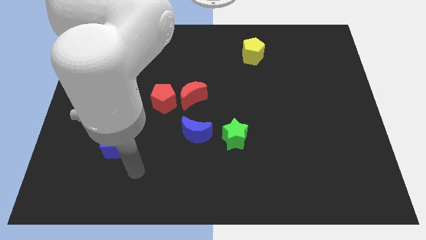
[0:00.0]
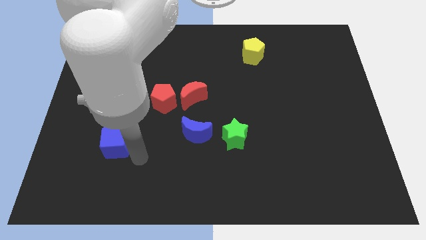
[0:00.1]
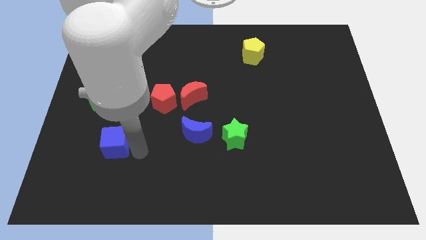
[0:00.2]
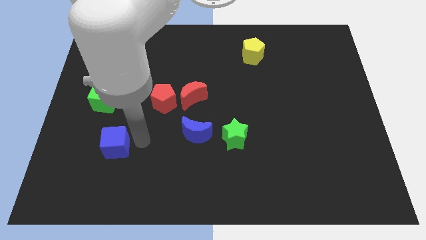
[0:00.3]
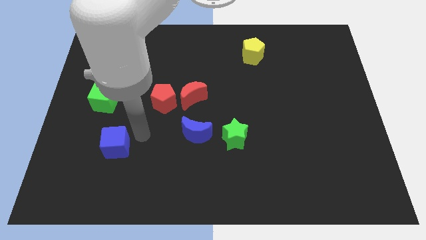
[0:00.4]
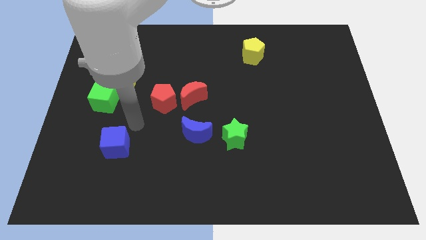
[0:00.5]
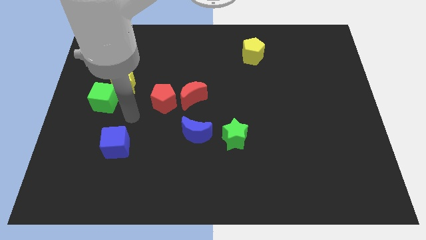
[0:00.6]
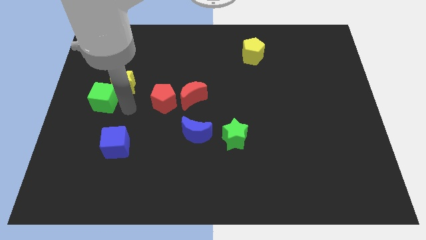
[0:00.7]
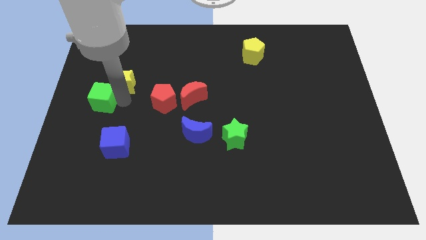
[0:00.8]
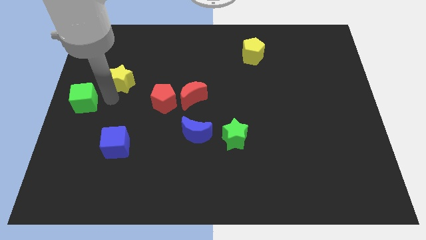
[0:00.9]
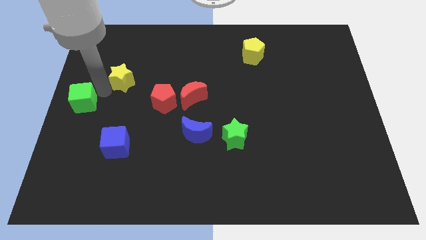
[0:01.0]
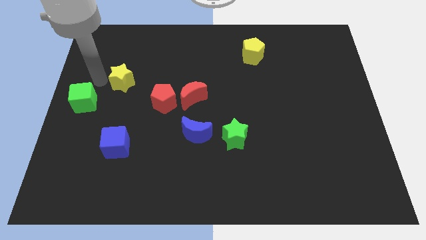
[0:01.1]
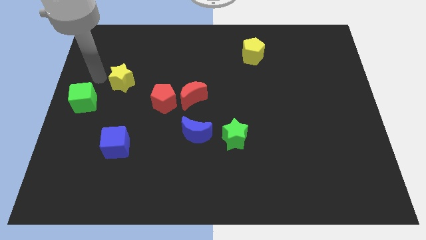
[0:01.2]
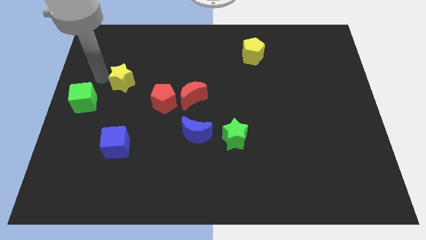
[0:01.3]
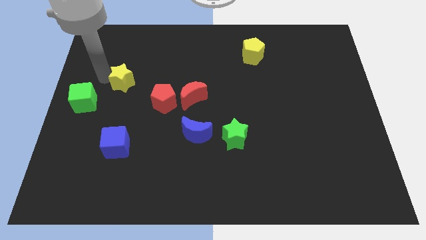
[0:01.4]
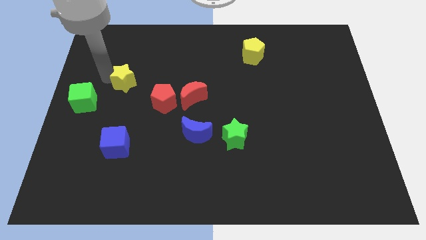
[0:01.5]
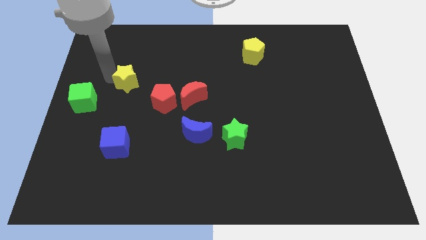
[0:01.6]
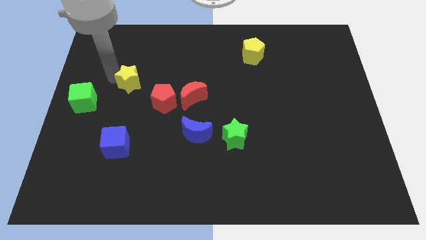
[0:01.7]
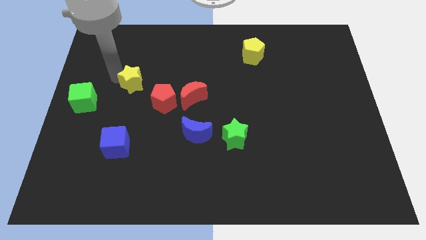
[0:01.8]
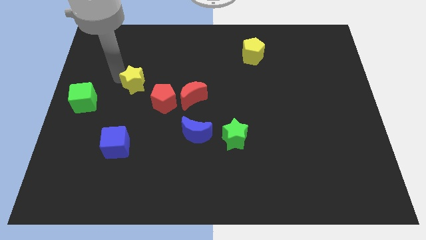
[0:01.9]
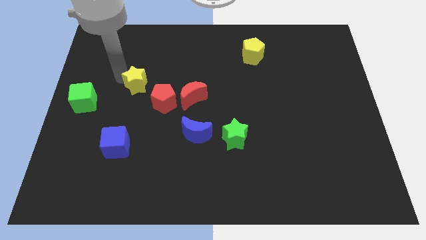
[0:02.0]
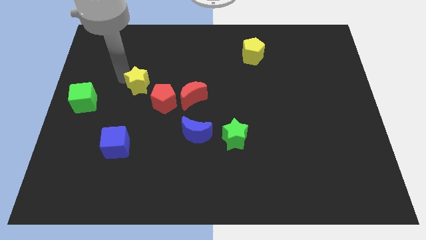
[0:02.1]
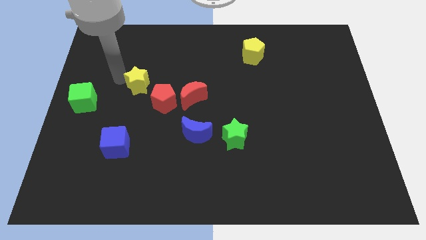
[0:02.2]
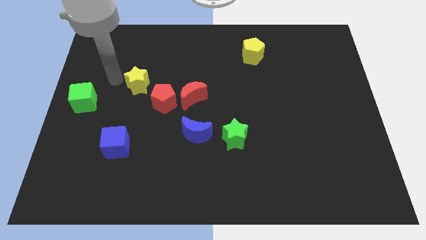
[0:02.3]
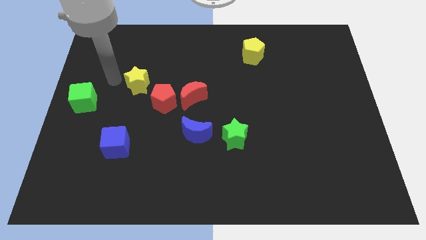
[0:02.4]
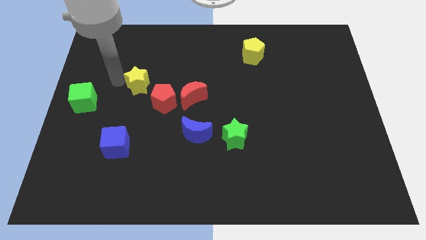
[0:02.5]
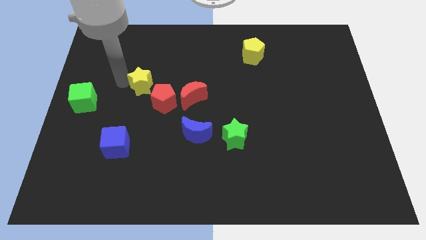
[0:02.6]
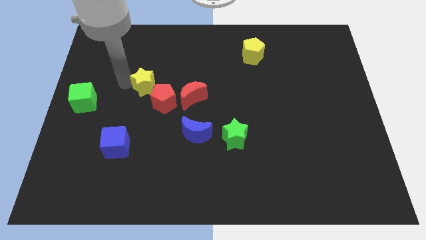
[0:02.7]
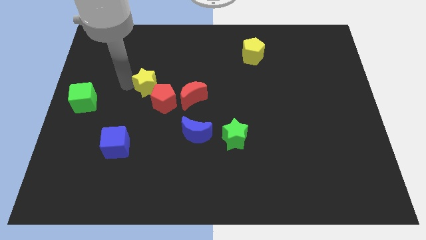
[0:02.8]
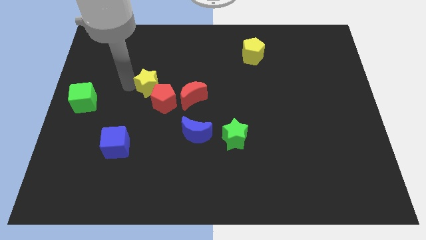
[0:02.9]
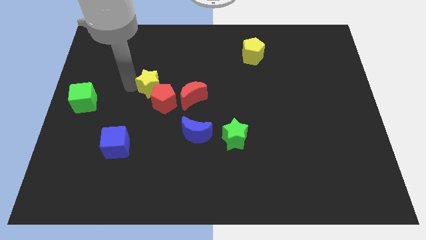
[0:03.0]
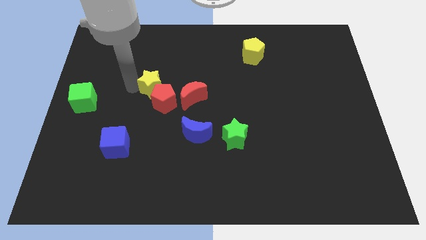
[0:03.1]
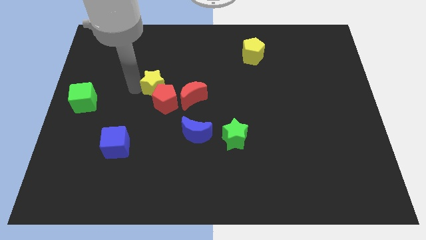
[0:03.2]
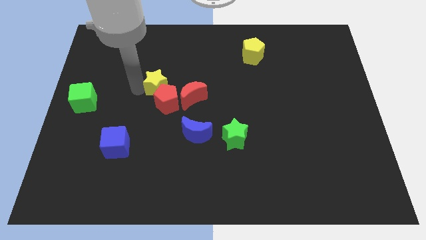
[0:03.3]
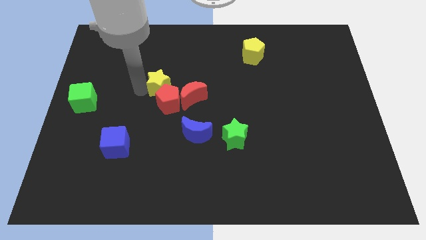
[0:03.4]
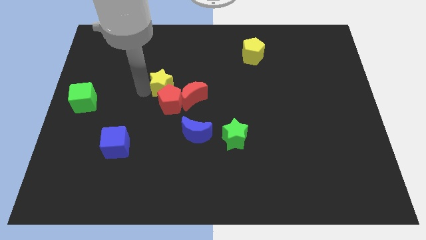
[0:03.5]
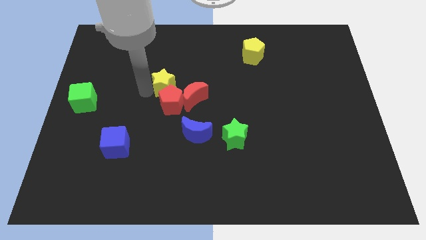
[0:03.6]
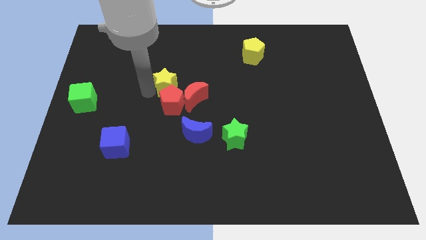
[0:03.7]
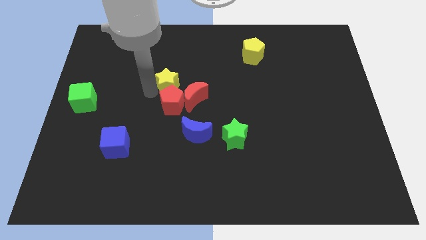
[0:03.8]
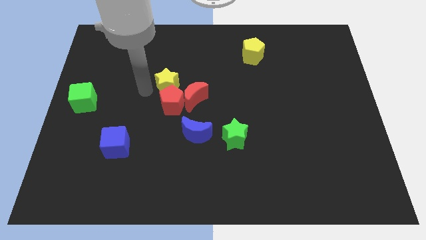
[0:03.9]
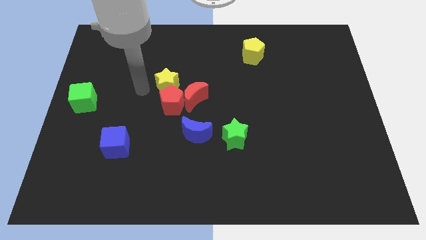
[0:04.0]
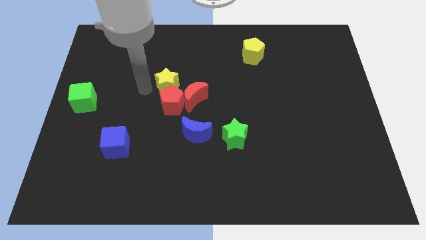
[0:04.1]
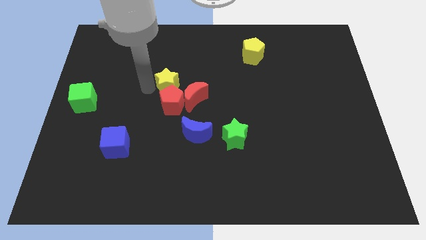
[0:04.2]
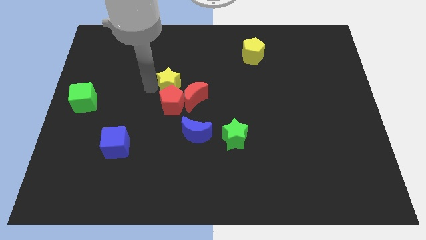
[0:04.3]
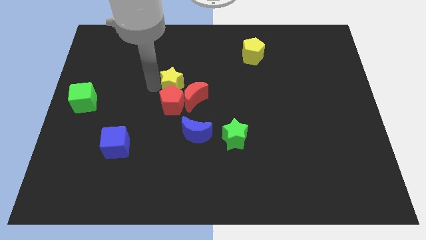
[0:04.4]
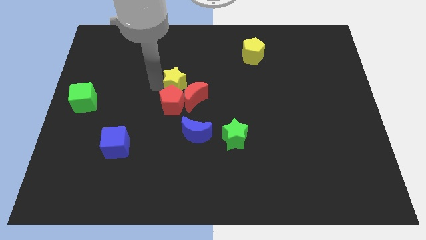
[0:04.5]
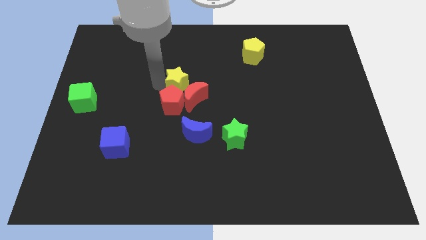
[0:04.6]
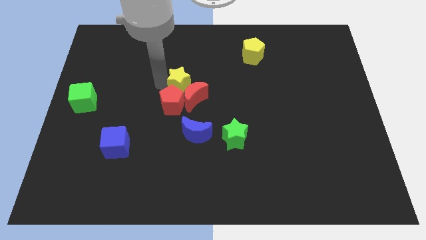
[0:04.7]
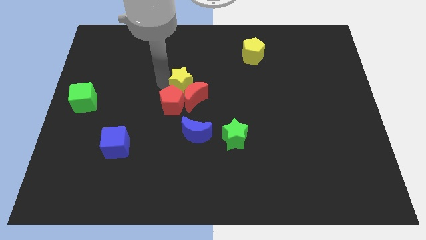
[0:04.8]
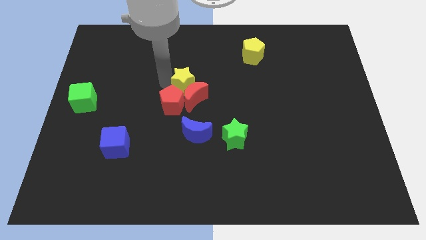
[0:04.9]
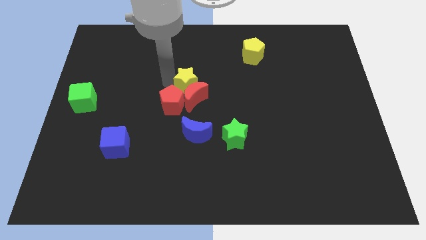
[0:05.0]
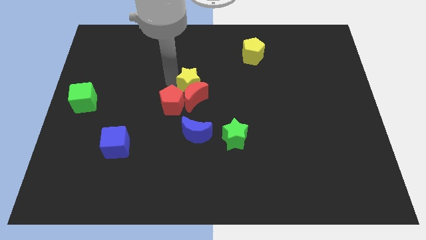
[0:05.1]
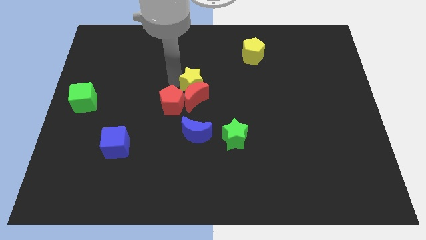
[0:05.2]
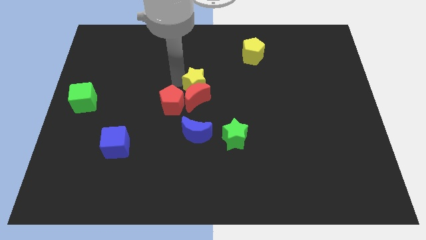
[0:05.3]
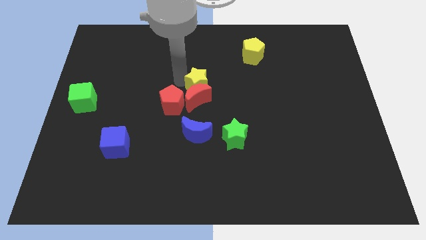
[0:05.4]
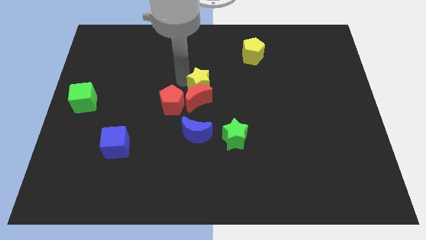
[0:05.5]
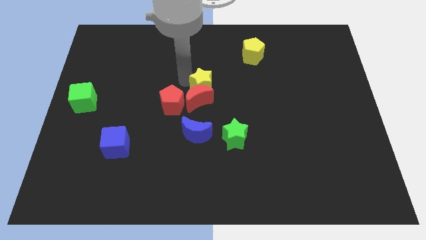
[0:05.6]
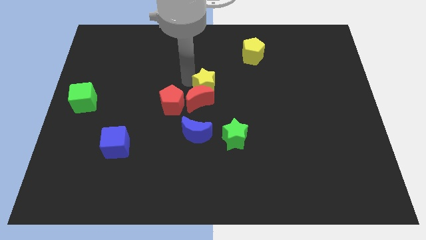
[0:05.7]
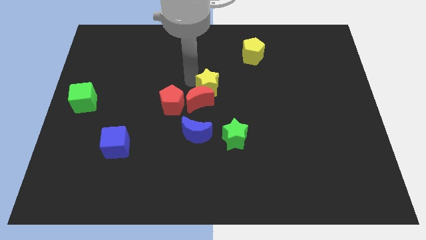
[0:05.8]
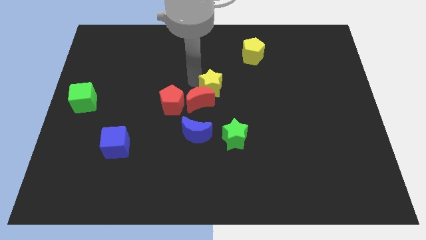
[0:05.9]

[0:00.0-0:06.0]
slide the yellow star just right of the red pentagon
